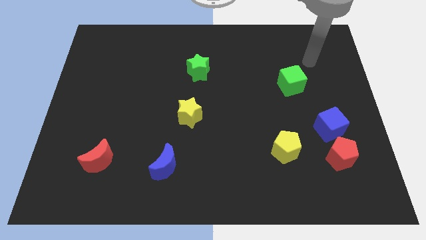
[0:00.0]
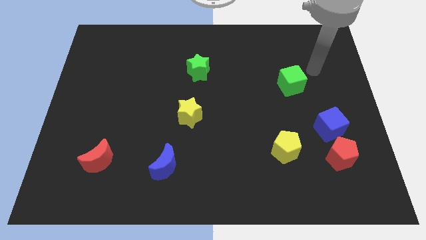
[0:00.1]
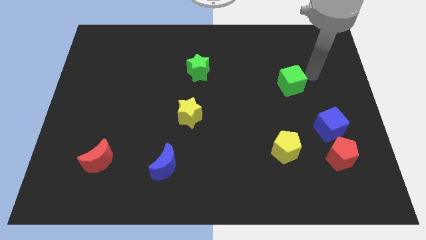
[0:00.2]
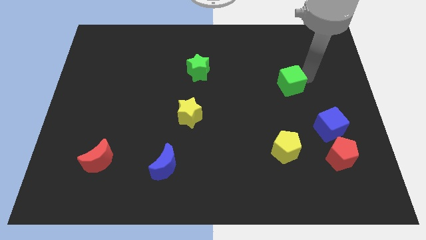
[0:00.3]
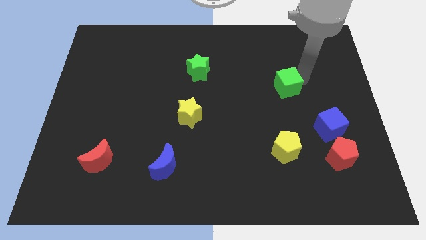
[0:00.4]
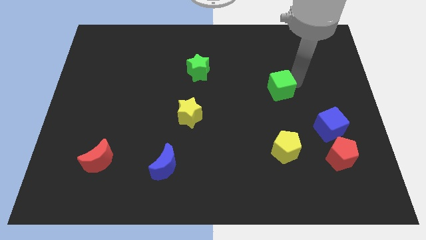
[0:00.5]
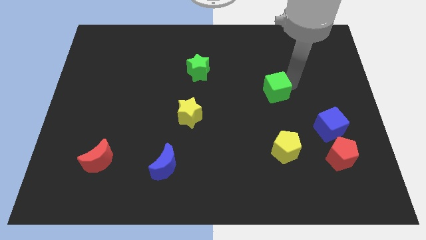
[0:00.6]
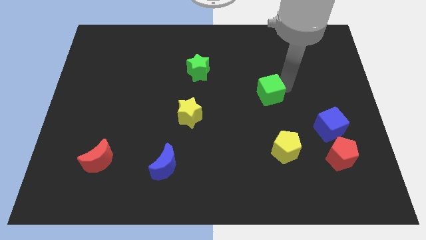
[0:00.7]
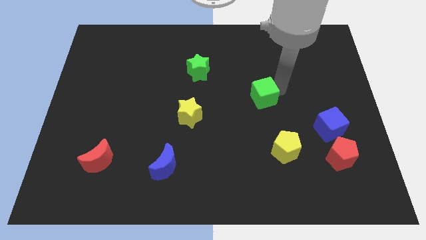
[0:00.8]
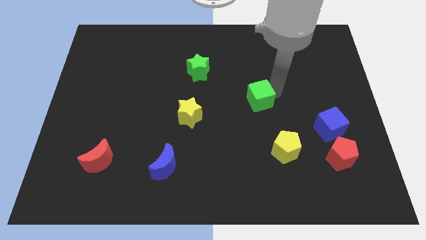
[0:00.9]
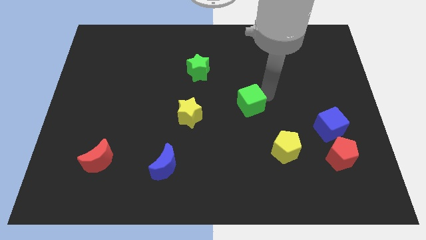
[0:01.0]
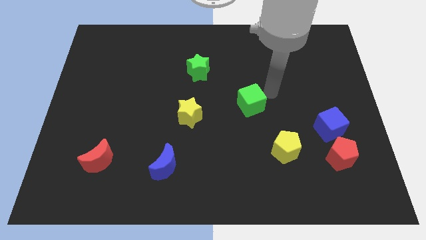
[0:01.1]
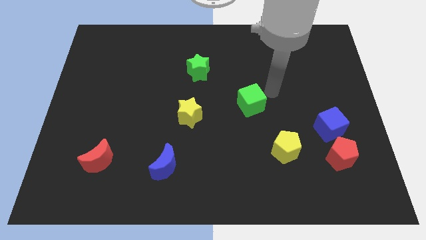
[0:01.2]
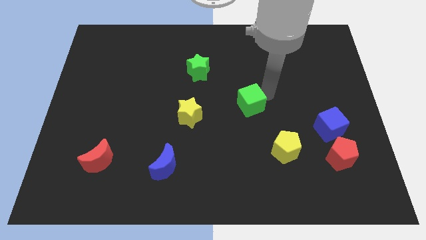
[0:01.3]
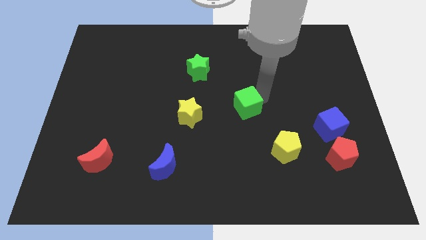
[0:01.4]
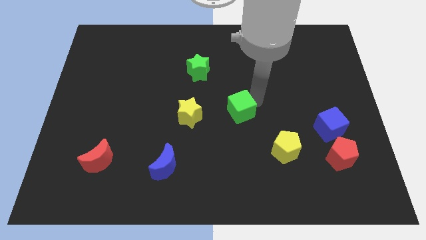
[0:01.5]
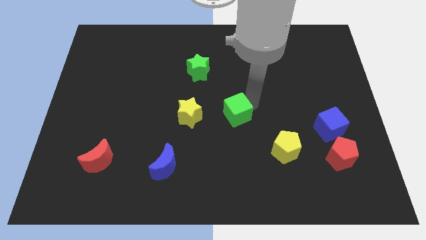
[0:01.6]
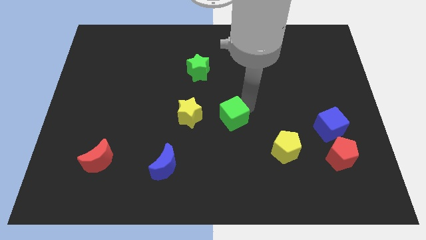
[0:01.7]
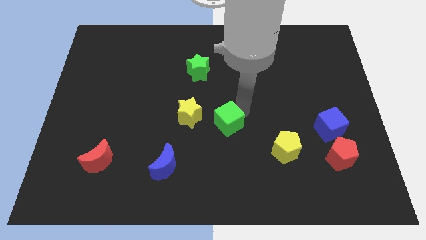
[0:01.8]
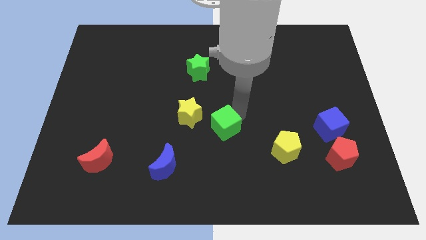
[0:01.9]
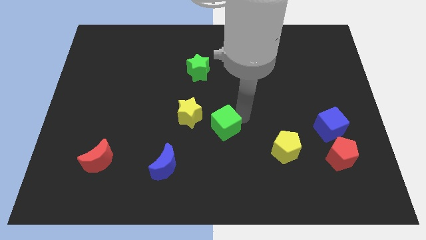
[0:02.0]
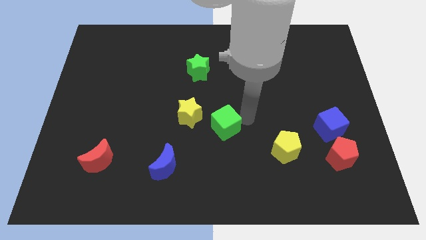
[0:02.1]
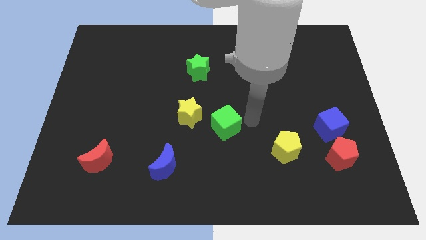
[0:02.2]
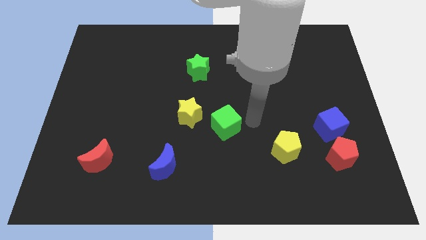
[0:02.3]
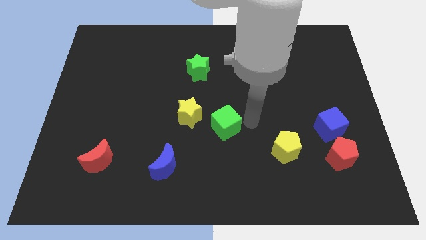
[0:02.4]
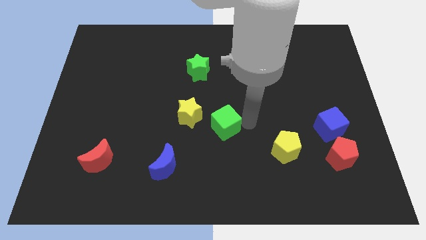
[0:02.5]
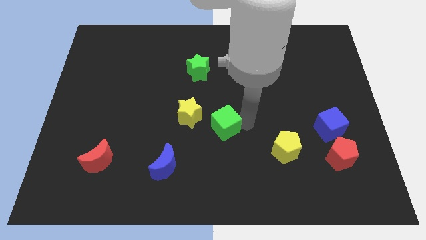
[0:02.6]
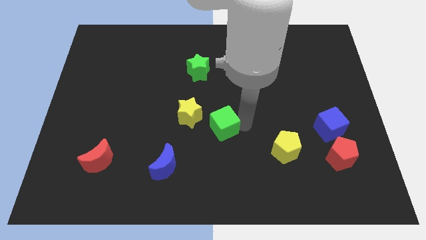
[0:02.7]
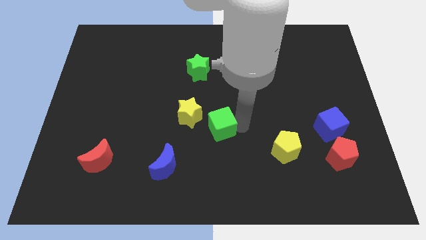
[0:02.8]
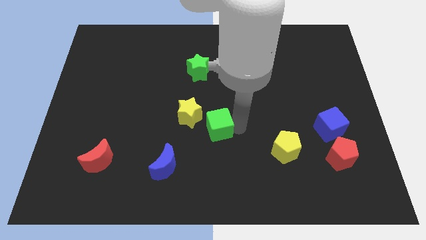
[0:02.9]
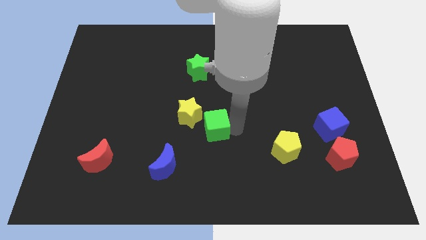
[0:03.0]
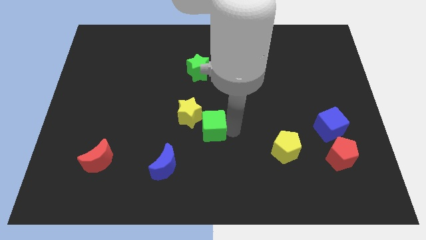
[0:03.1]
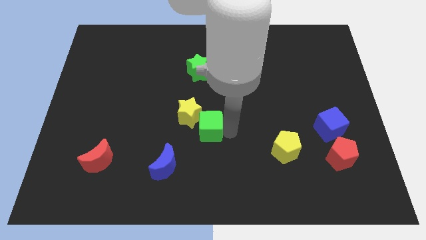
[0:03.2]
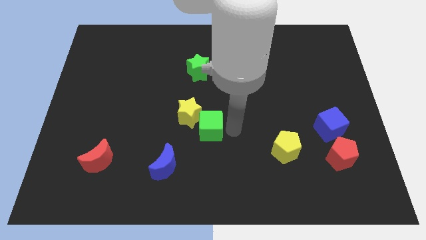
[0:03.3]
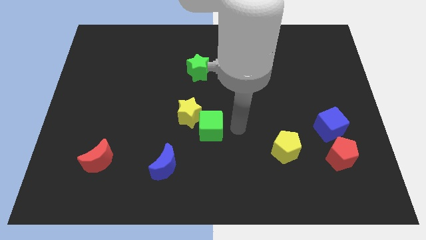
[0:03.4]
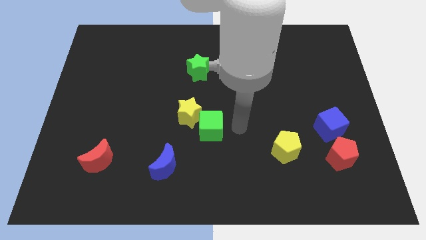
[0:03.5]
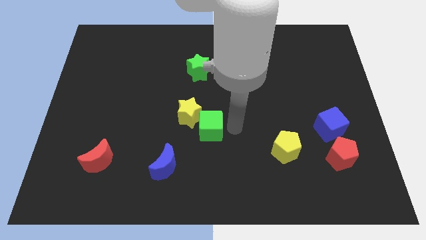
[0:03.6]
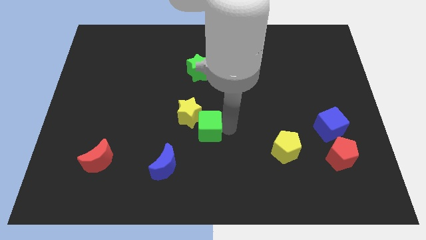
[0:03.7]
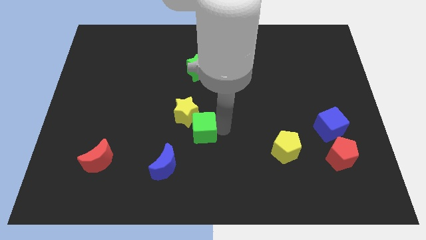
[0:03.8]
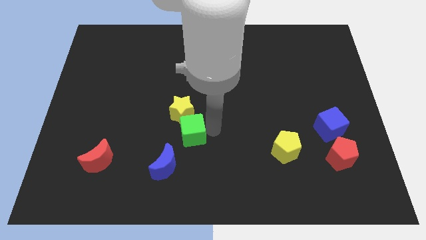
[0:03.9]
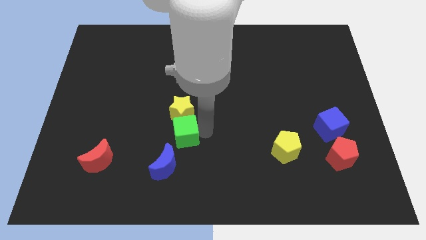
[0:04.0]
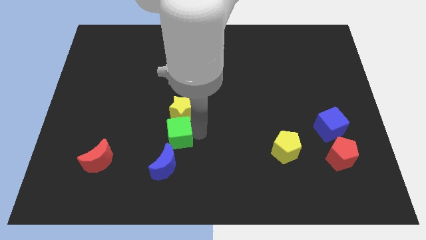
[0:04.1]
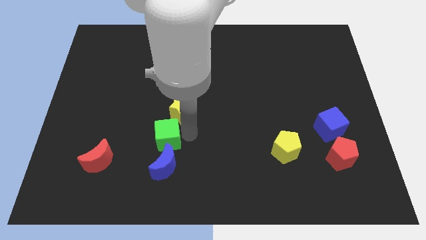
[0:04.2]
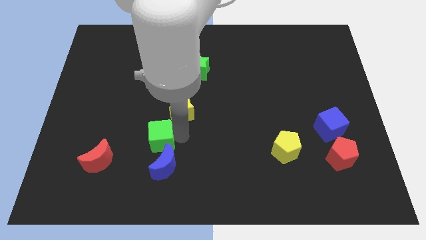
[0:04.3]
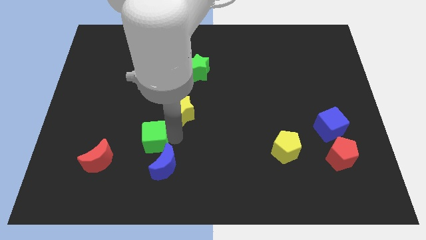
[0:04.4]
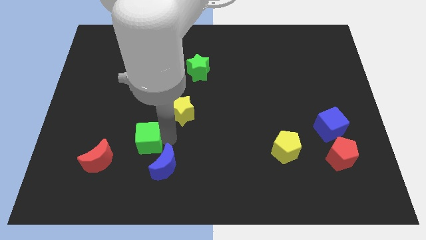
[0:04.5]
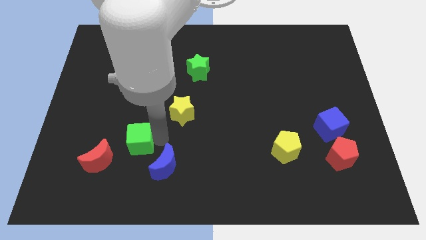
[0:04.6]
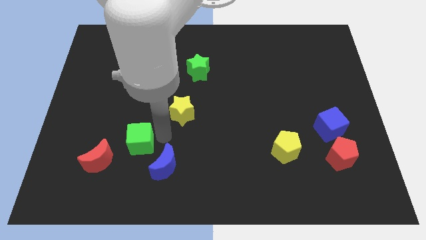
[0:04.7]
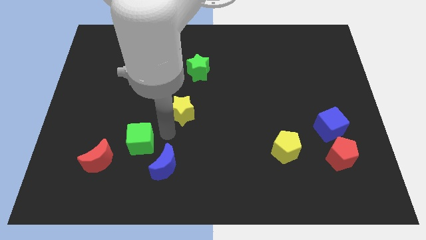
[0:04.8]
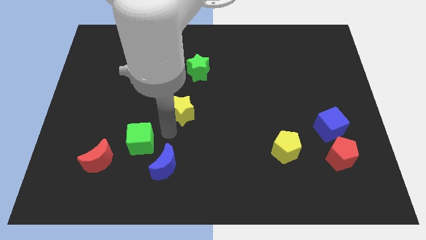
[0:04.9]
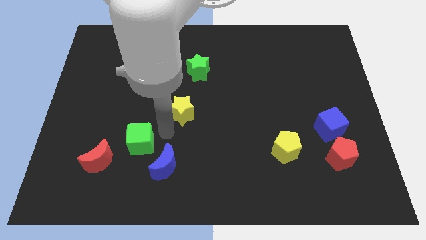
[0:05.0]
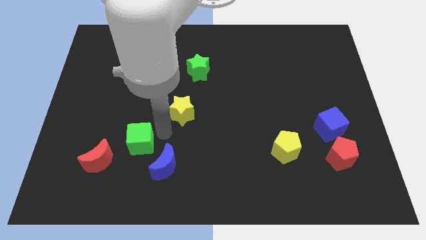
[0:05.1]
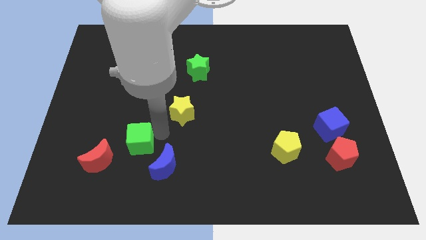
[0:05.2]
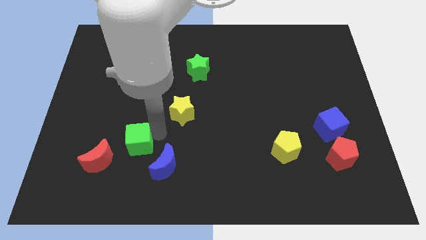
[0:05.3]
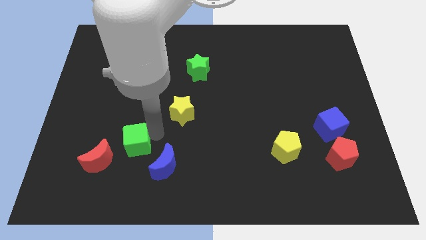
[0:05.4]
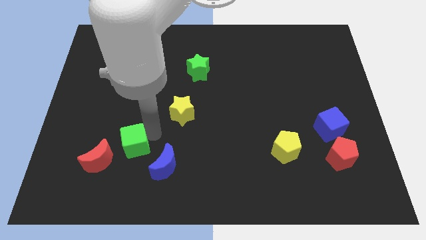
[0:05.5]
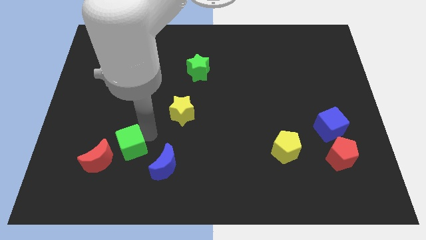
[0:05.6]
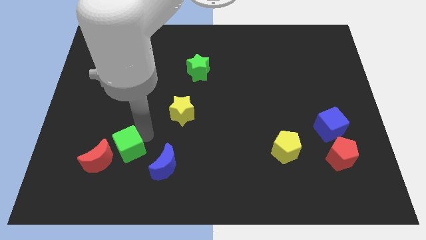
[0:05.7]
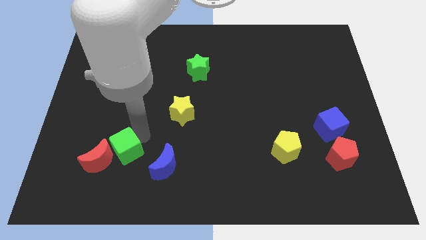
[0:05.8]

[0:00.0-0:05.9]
move the green cube next to the red moon
